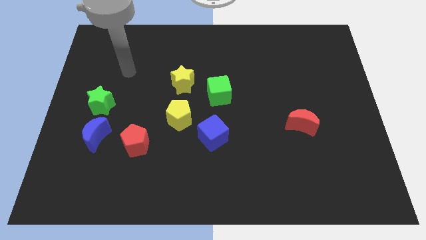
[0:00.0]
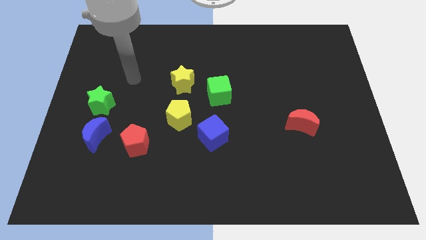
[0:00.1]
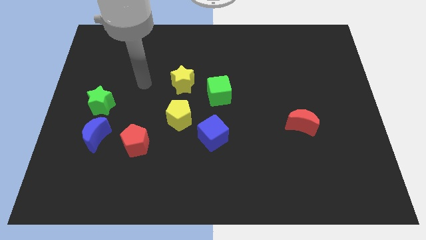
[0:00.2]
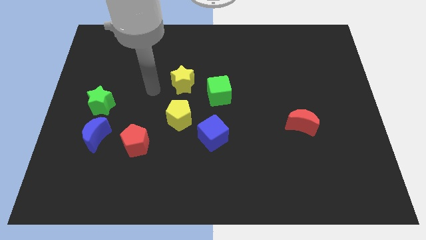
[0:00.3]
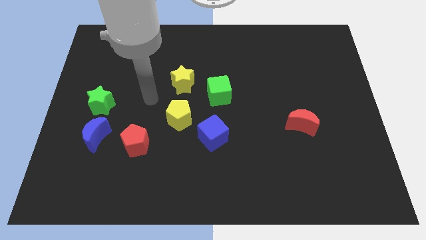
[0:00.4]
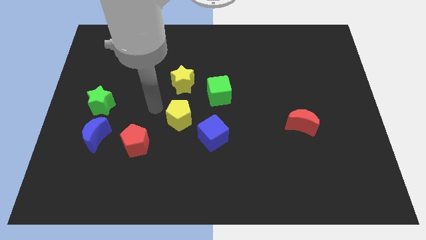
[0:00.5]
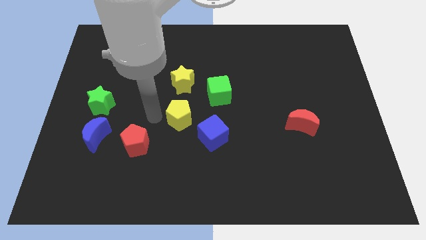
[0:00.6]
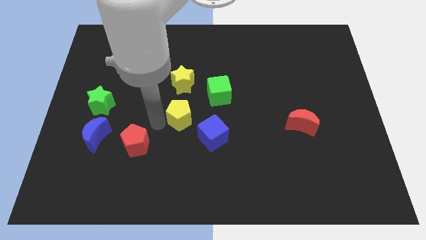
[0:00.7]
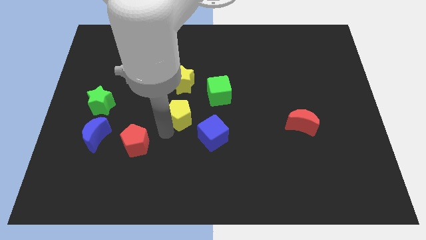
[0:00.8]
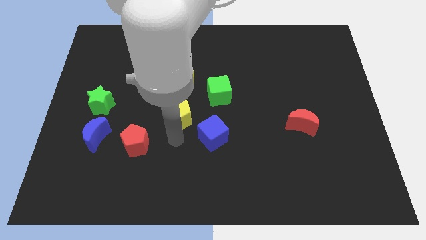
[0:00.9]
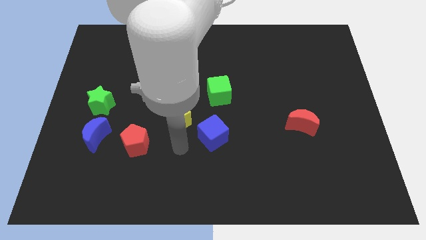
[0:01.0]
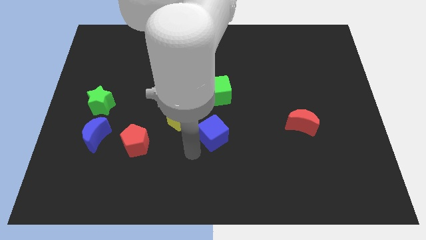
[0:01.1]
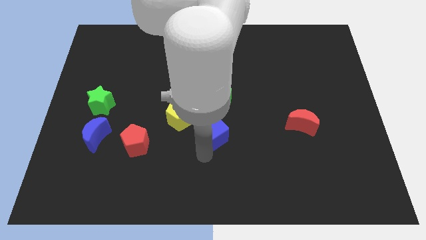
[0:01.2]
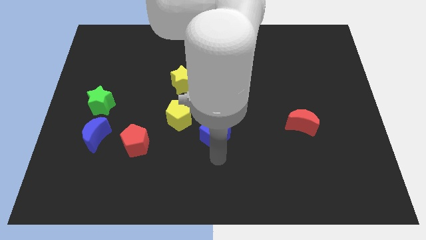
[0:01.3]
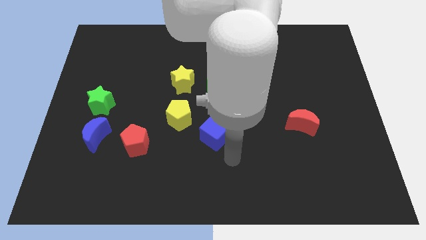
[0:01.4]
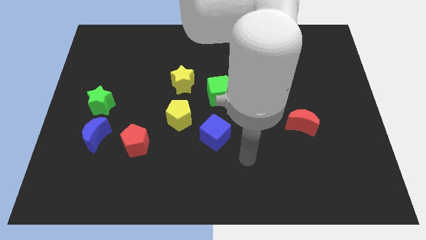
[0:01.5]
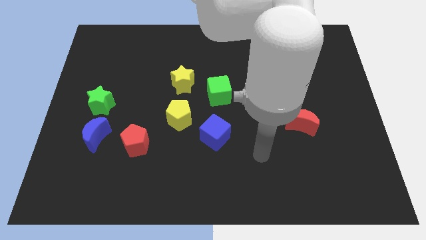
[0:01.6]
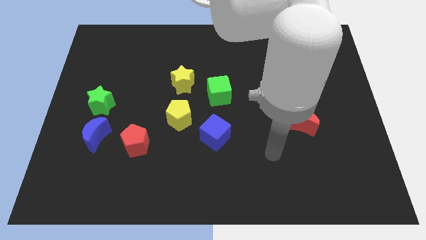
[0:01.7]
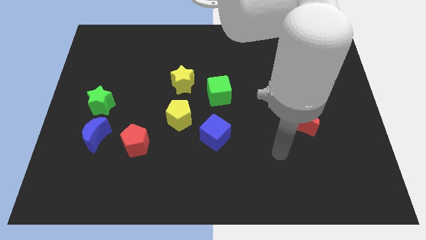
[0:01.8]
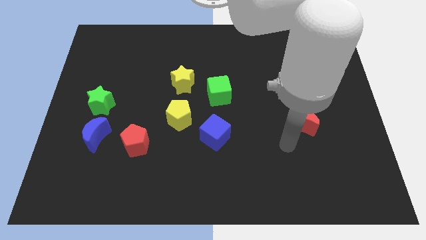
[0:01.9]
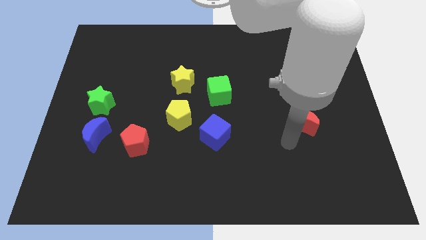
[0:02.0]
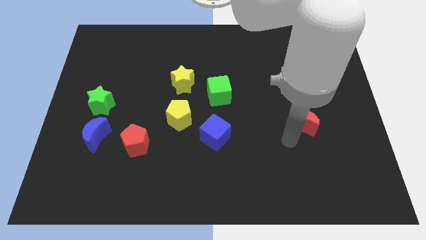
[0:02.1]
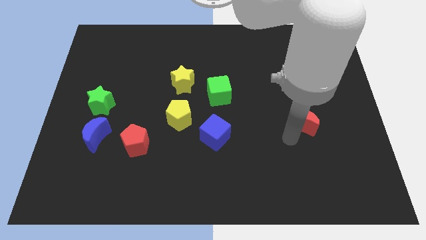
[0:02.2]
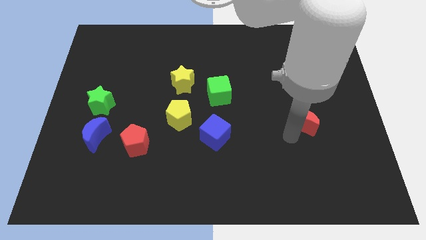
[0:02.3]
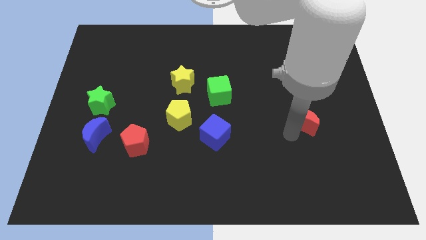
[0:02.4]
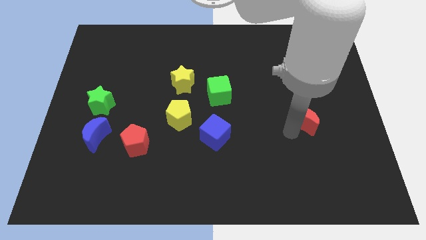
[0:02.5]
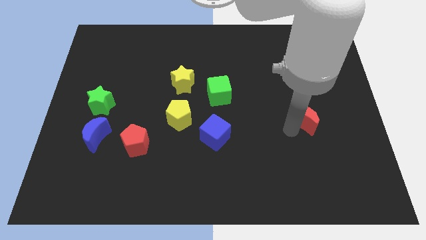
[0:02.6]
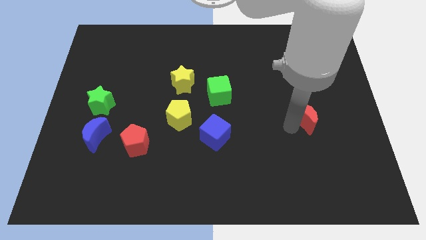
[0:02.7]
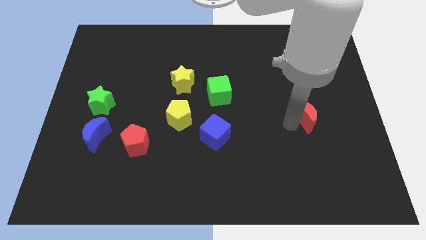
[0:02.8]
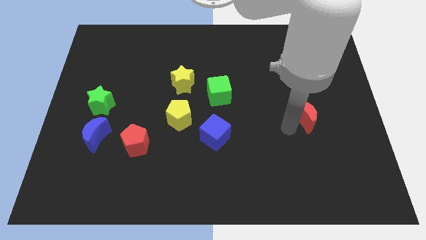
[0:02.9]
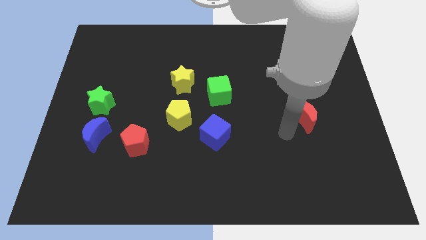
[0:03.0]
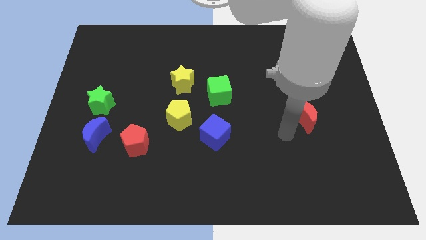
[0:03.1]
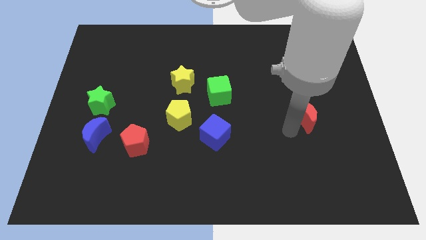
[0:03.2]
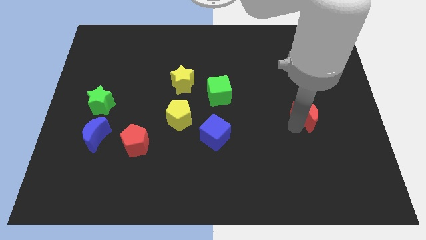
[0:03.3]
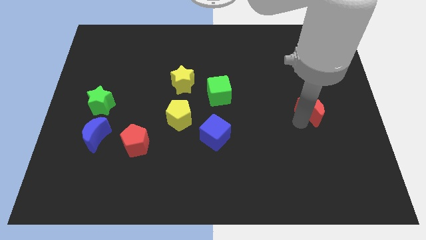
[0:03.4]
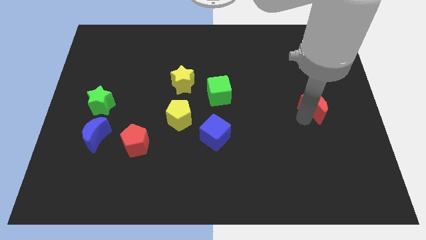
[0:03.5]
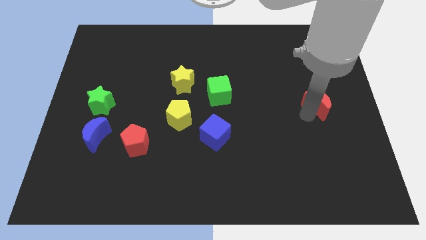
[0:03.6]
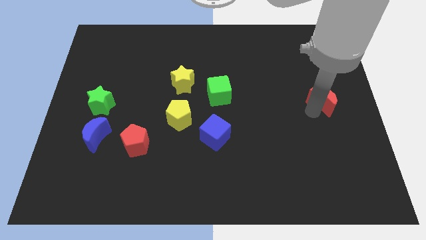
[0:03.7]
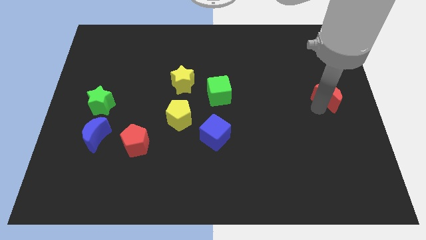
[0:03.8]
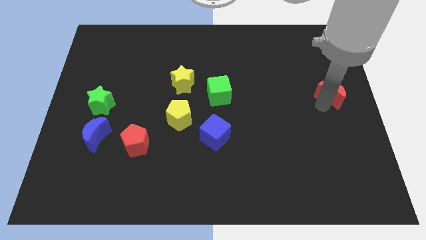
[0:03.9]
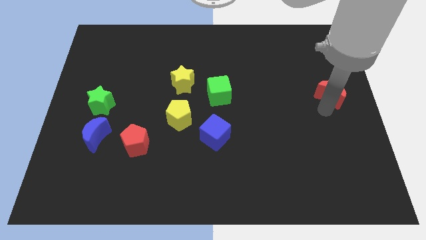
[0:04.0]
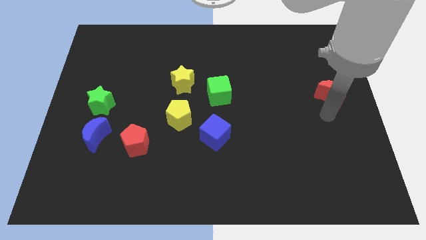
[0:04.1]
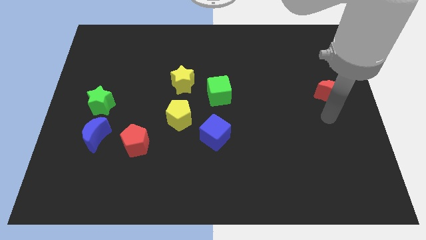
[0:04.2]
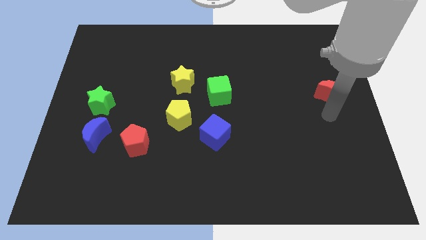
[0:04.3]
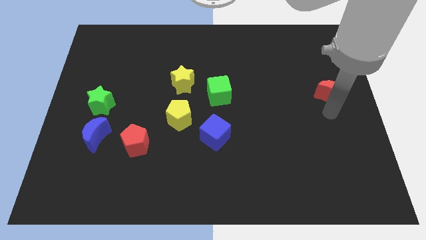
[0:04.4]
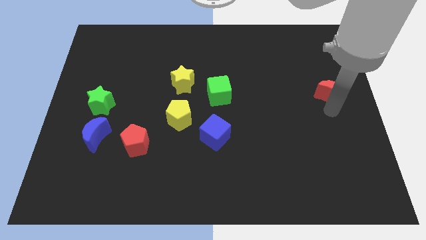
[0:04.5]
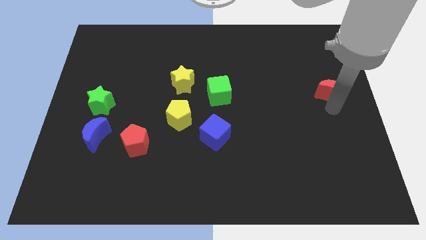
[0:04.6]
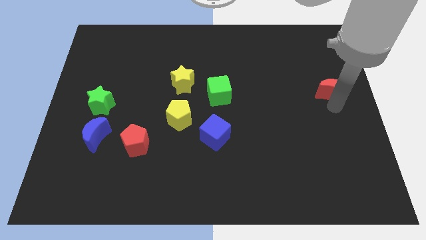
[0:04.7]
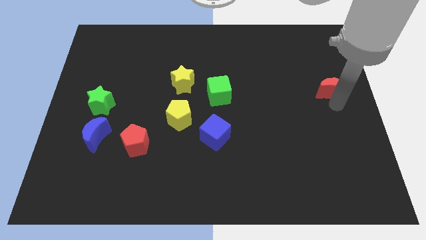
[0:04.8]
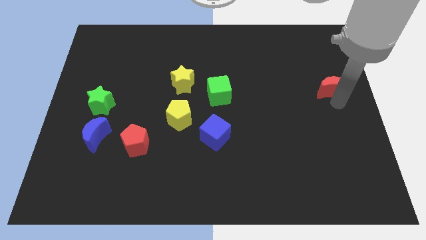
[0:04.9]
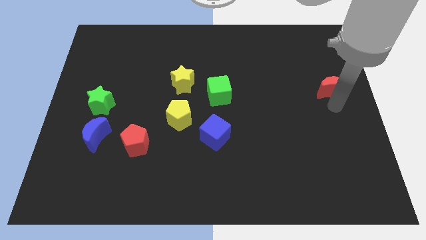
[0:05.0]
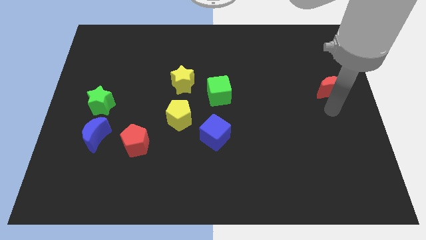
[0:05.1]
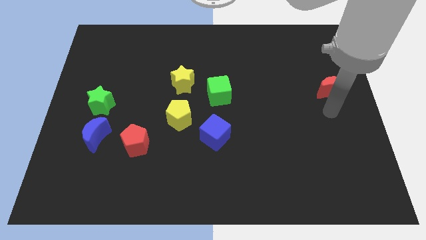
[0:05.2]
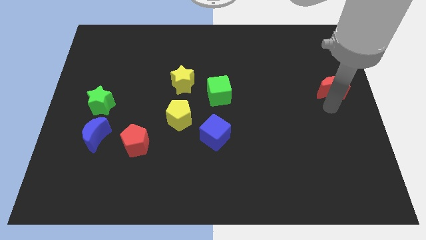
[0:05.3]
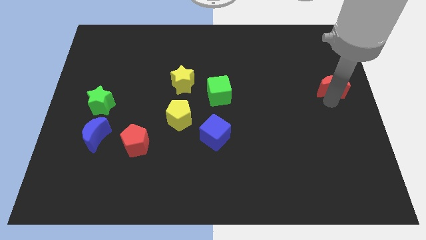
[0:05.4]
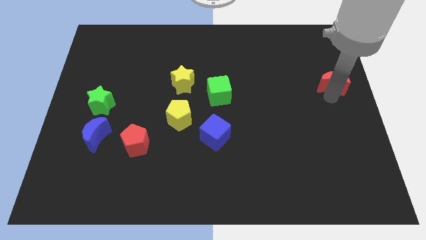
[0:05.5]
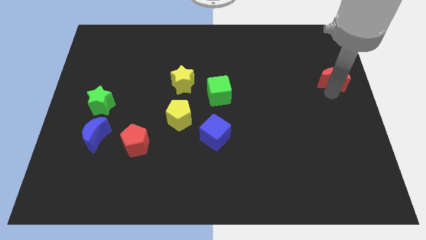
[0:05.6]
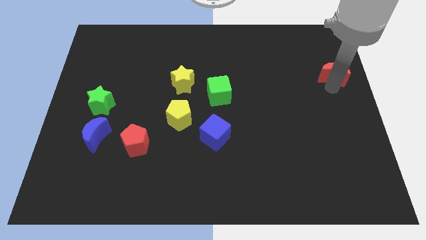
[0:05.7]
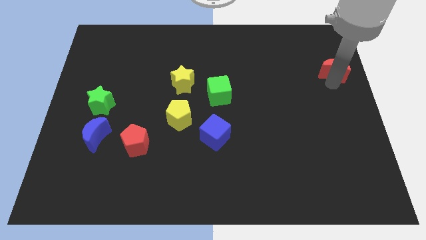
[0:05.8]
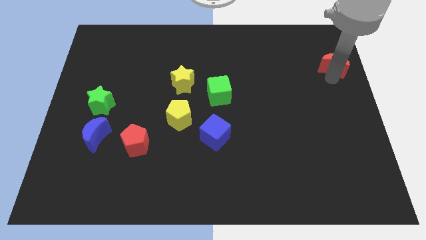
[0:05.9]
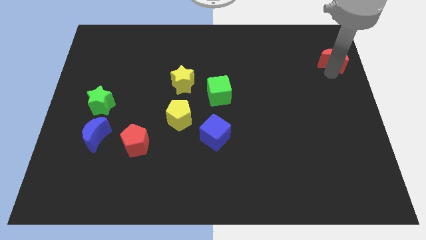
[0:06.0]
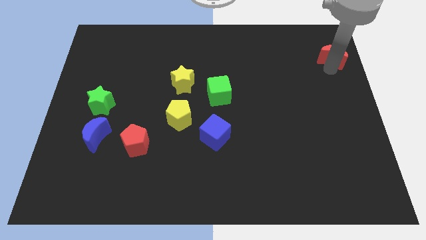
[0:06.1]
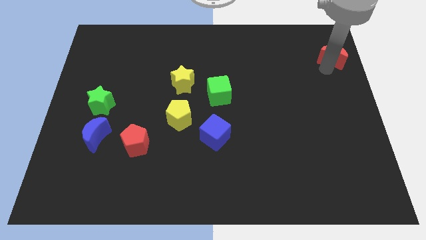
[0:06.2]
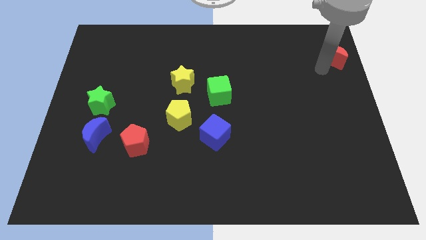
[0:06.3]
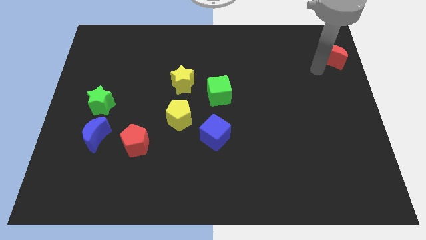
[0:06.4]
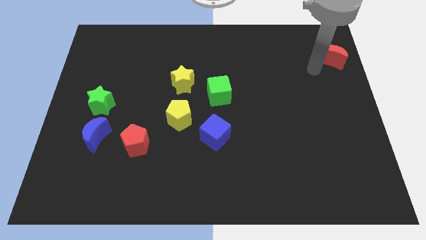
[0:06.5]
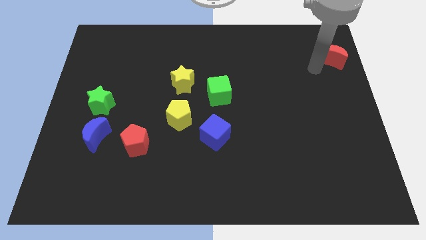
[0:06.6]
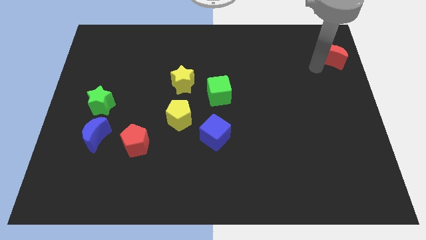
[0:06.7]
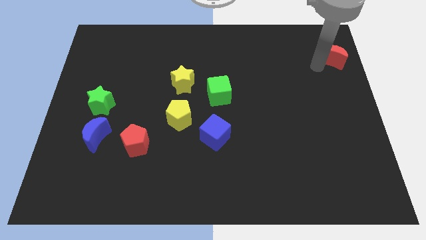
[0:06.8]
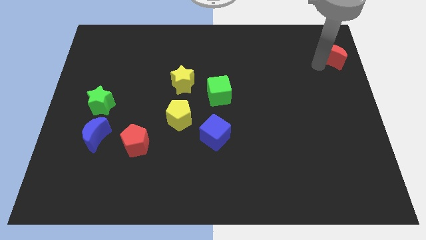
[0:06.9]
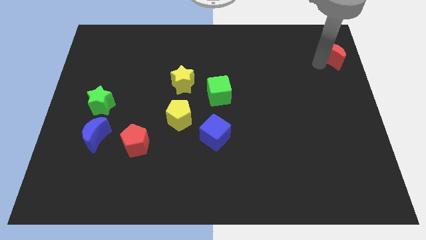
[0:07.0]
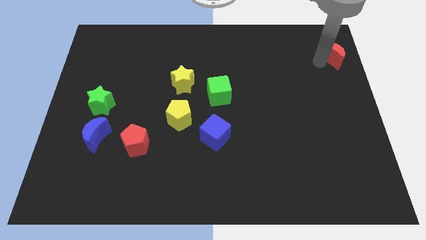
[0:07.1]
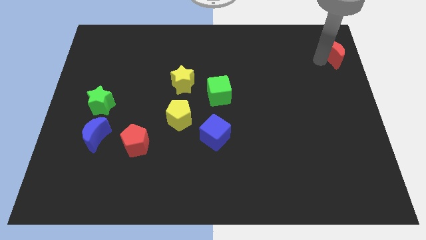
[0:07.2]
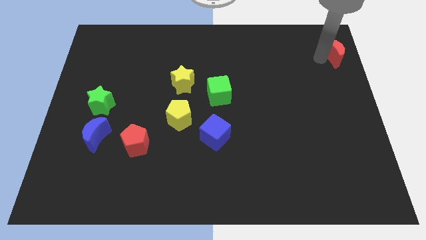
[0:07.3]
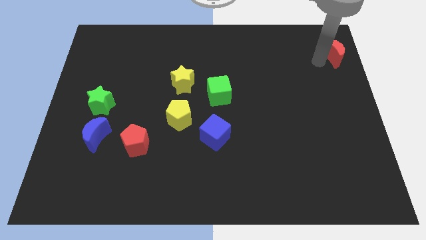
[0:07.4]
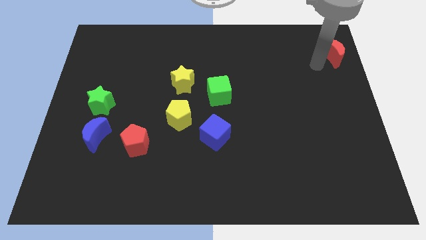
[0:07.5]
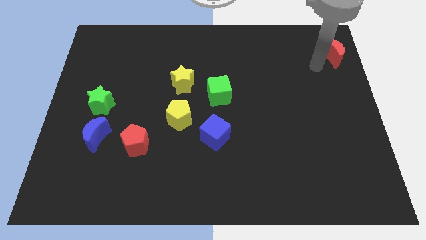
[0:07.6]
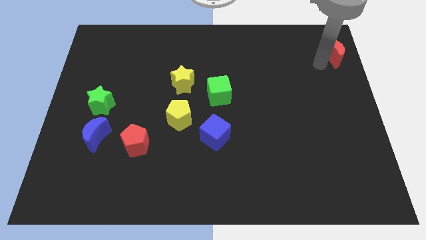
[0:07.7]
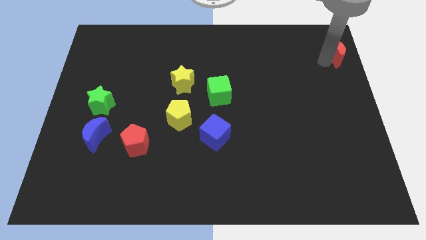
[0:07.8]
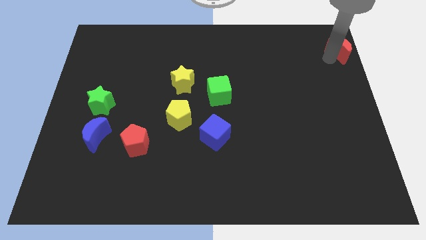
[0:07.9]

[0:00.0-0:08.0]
slide the red moon to the top right of the board
